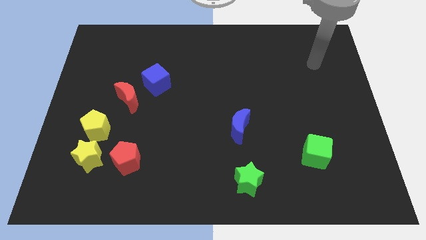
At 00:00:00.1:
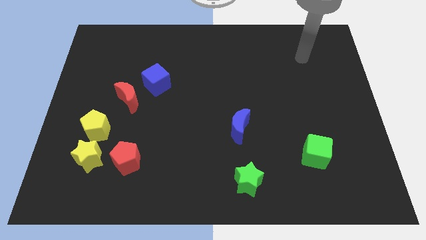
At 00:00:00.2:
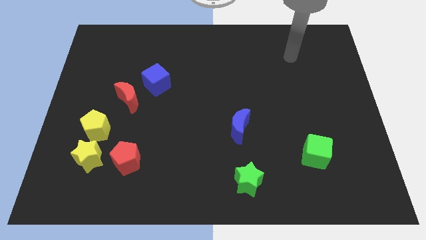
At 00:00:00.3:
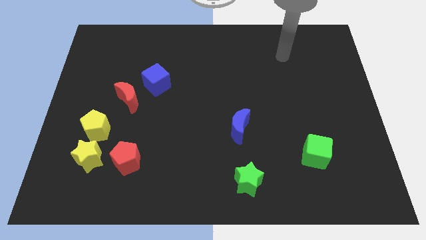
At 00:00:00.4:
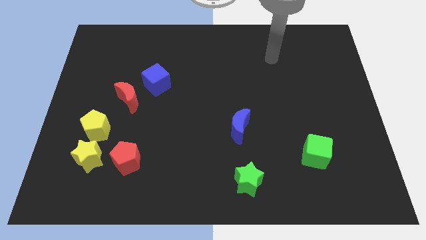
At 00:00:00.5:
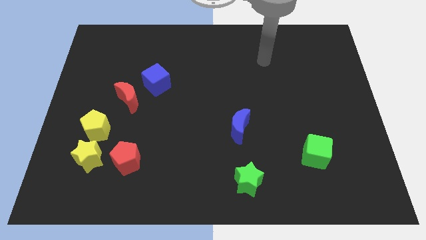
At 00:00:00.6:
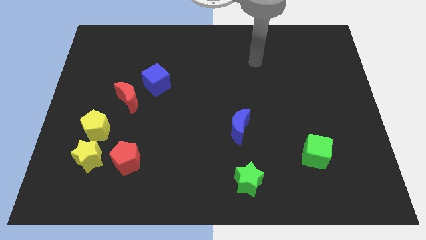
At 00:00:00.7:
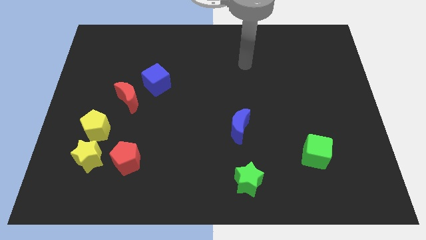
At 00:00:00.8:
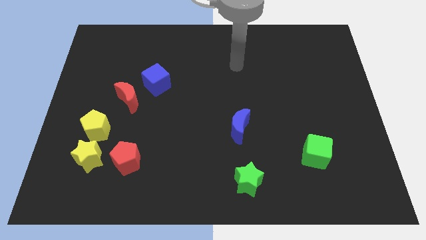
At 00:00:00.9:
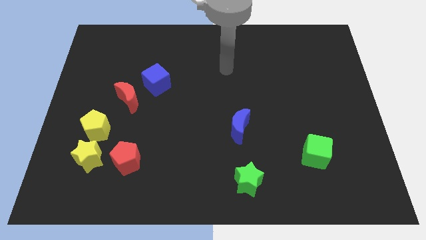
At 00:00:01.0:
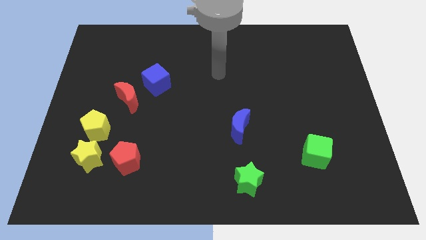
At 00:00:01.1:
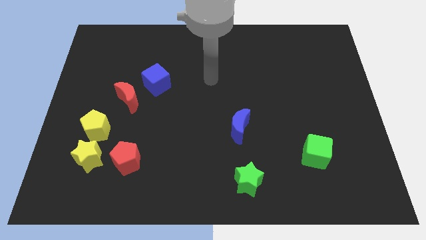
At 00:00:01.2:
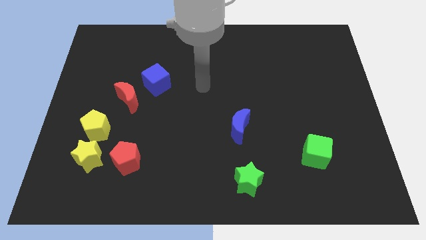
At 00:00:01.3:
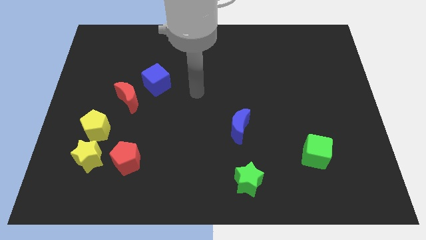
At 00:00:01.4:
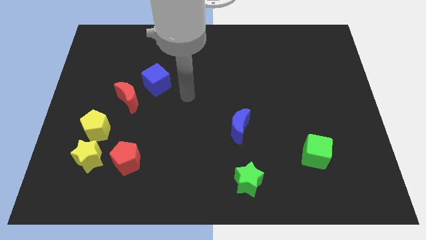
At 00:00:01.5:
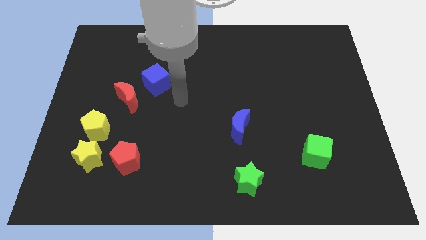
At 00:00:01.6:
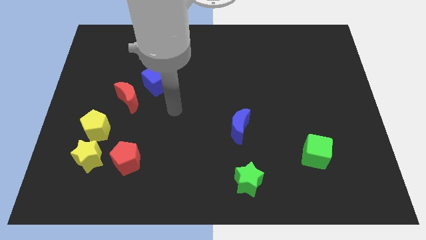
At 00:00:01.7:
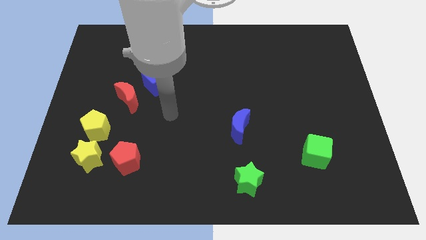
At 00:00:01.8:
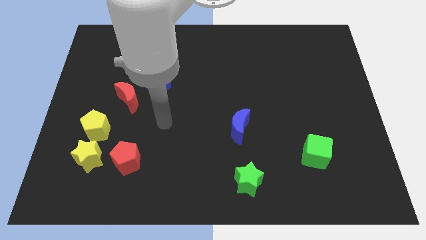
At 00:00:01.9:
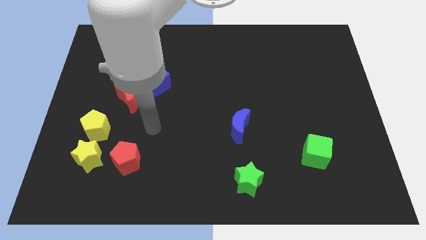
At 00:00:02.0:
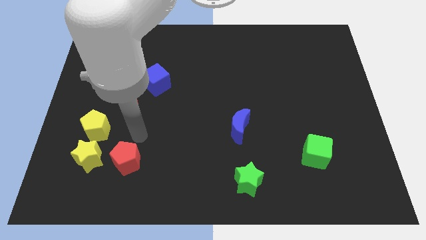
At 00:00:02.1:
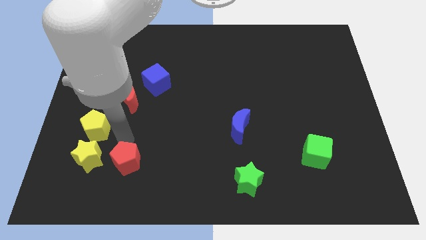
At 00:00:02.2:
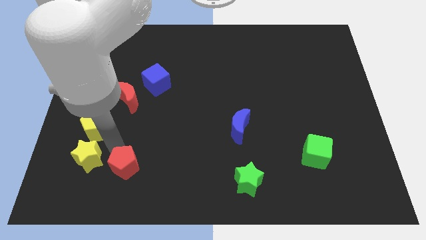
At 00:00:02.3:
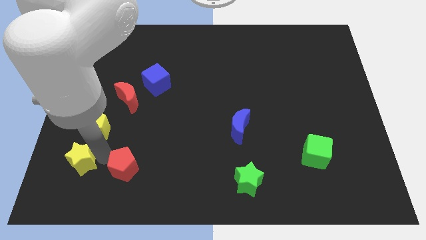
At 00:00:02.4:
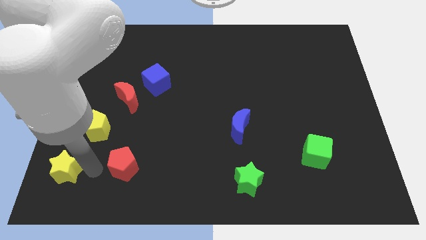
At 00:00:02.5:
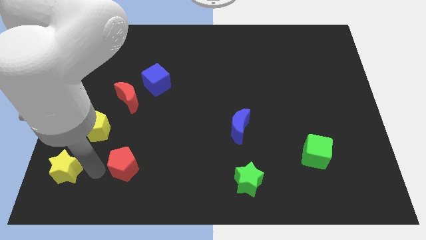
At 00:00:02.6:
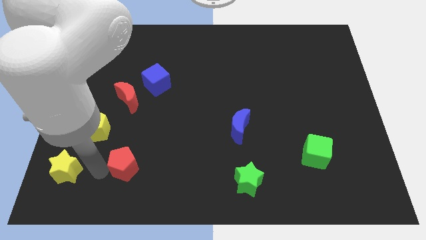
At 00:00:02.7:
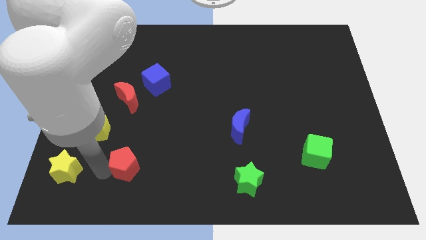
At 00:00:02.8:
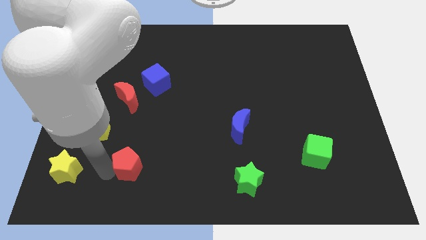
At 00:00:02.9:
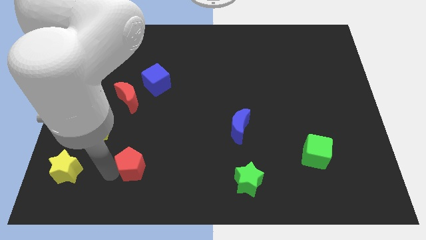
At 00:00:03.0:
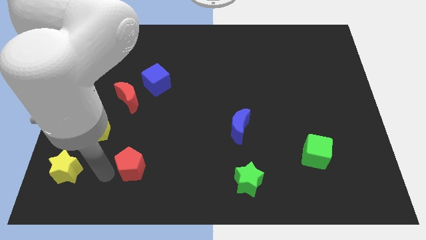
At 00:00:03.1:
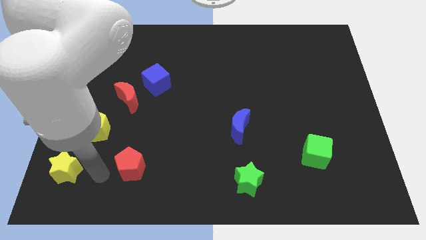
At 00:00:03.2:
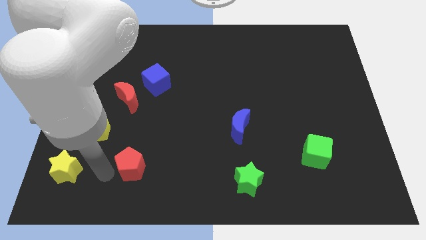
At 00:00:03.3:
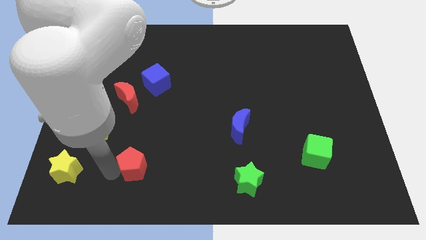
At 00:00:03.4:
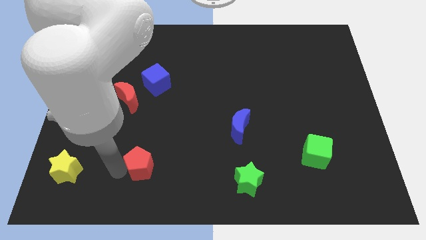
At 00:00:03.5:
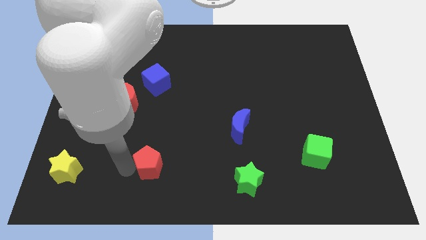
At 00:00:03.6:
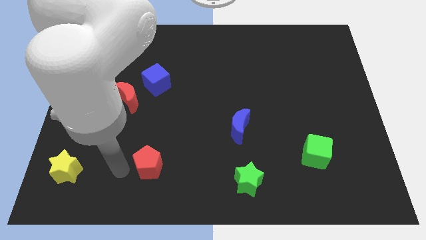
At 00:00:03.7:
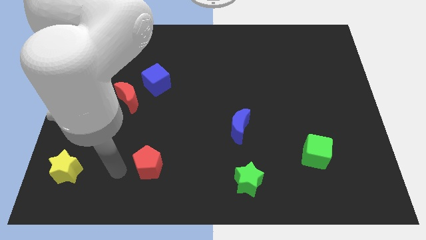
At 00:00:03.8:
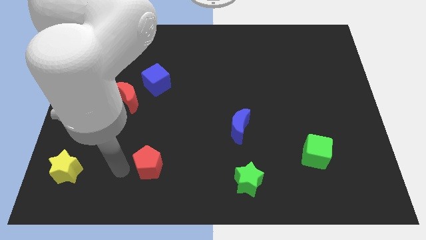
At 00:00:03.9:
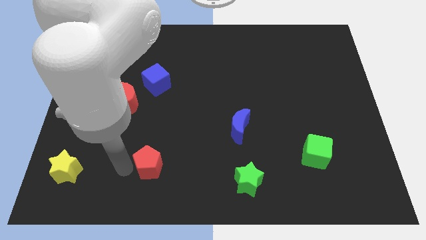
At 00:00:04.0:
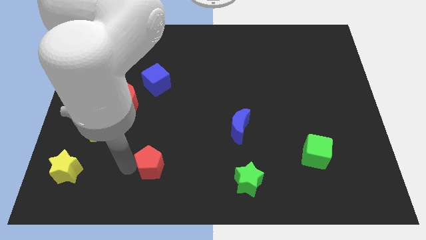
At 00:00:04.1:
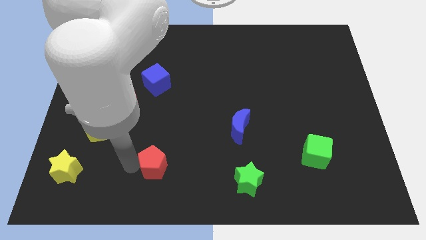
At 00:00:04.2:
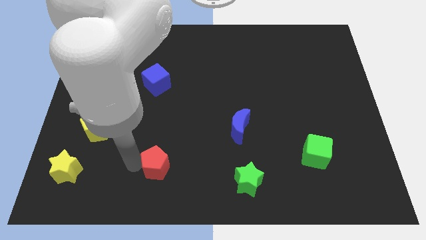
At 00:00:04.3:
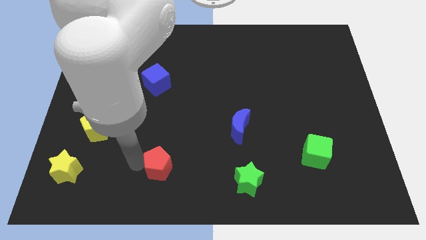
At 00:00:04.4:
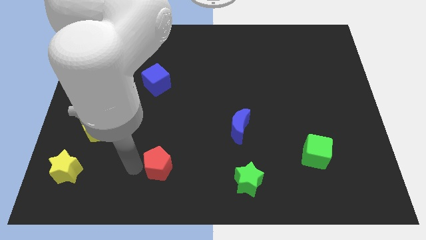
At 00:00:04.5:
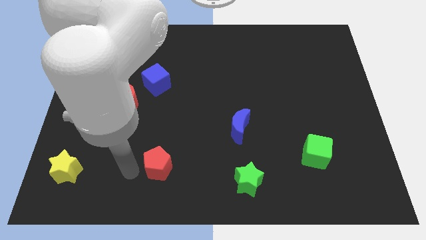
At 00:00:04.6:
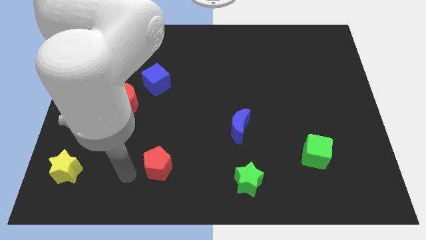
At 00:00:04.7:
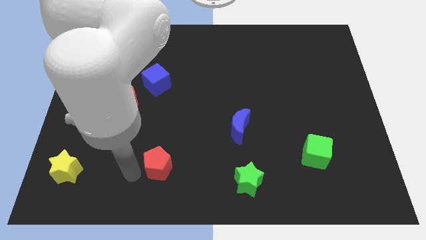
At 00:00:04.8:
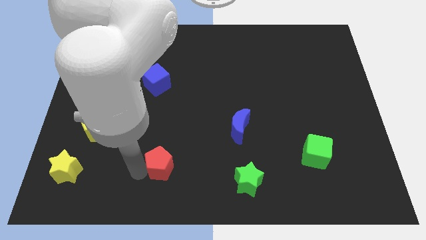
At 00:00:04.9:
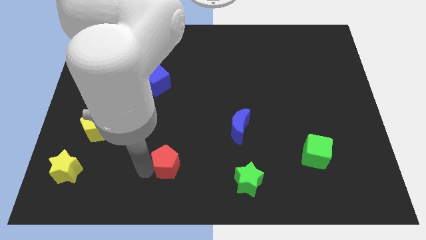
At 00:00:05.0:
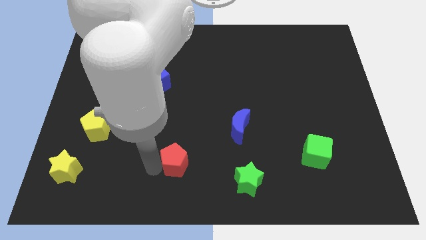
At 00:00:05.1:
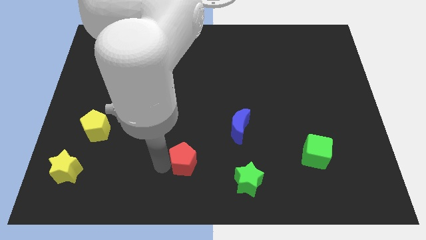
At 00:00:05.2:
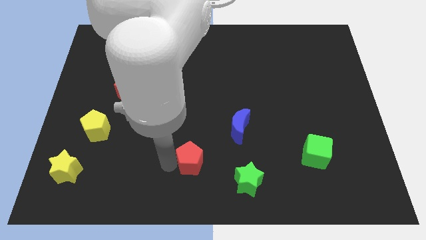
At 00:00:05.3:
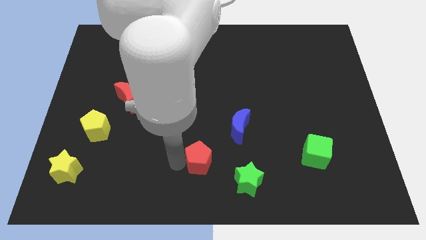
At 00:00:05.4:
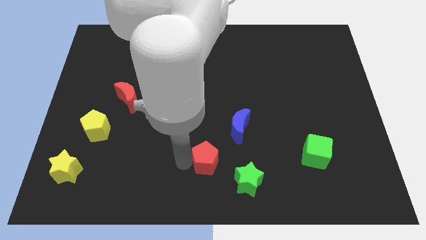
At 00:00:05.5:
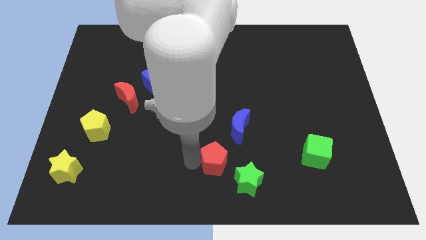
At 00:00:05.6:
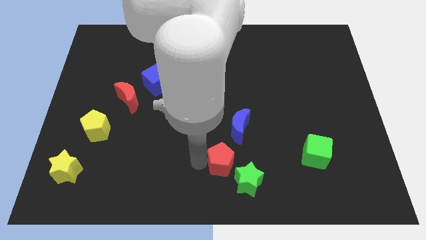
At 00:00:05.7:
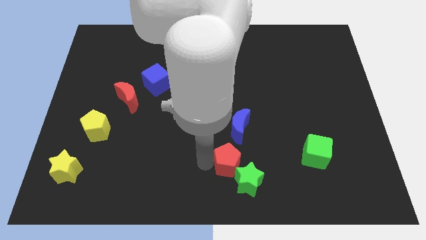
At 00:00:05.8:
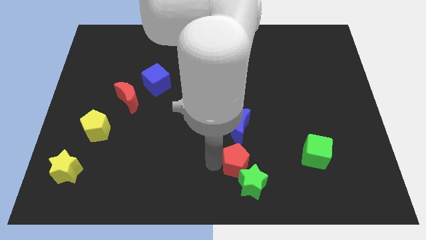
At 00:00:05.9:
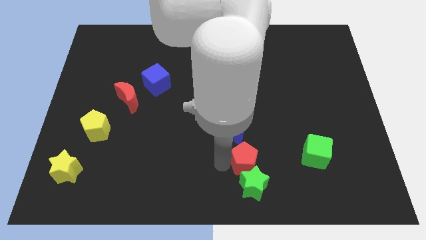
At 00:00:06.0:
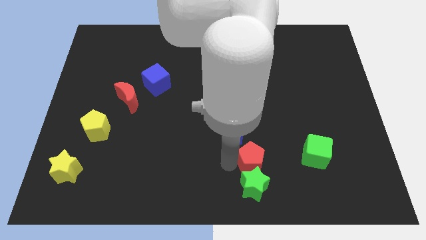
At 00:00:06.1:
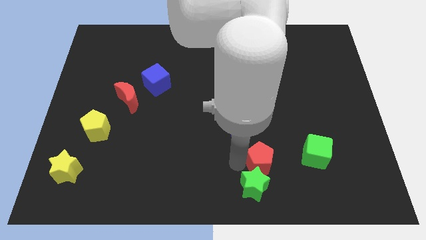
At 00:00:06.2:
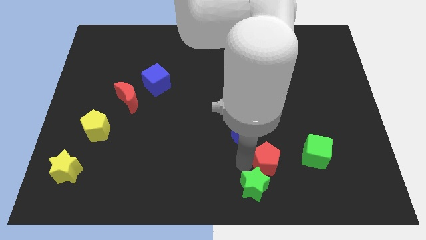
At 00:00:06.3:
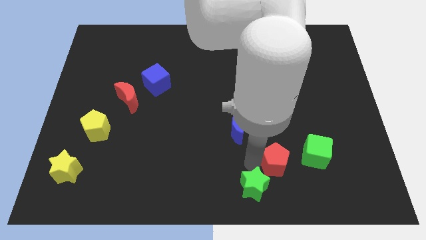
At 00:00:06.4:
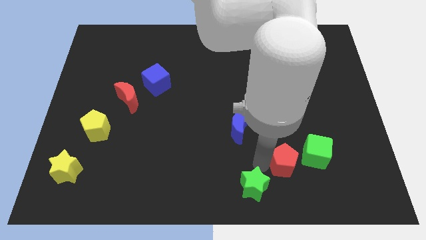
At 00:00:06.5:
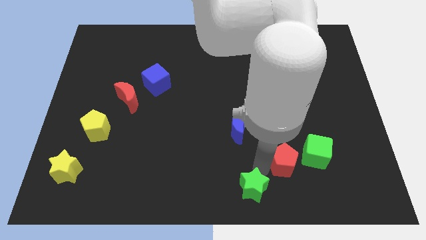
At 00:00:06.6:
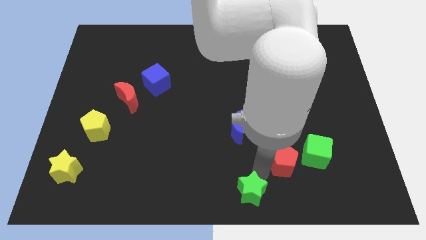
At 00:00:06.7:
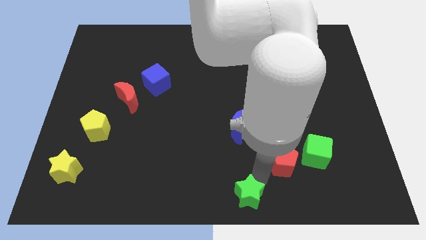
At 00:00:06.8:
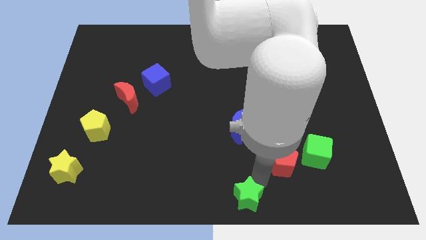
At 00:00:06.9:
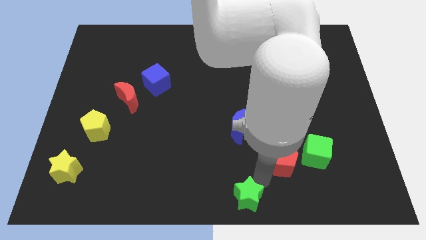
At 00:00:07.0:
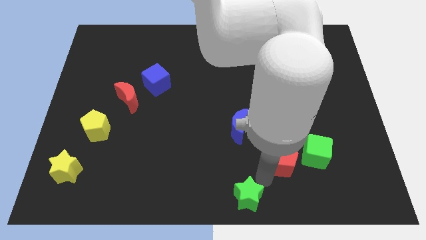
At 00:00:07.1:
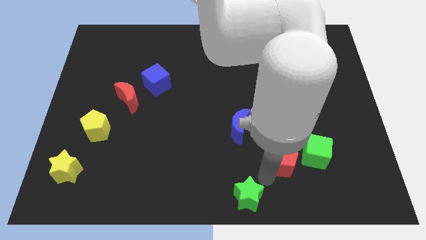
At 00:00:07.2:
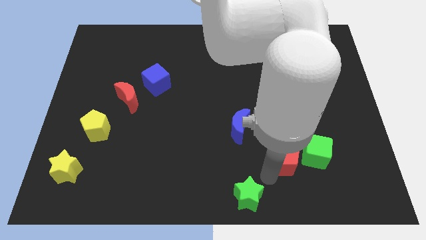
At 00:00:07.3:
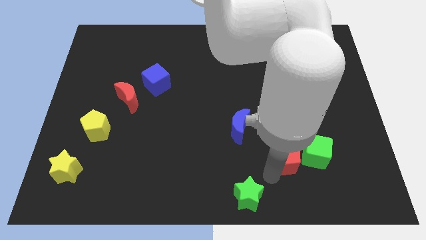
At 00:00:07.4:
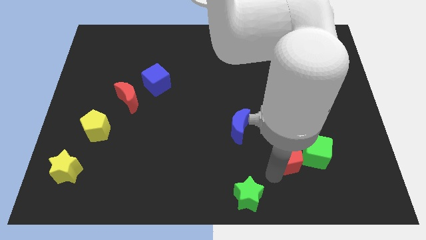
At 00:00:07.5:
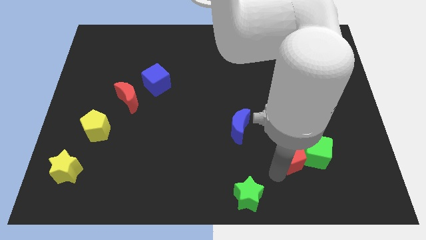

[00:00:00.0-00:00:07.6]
slide the red pentagon close to the green cube
